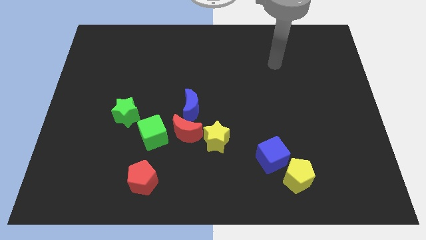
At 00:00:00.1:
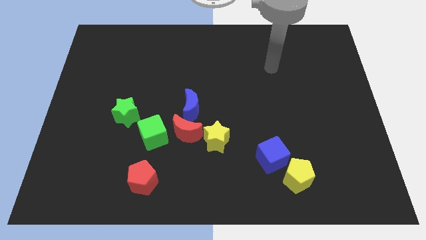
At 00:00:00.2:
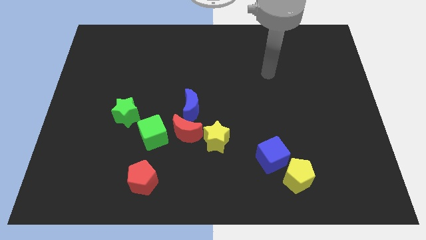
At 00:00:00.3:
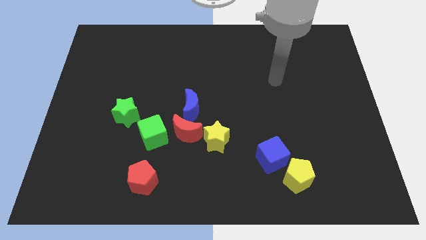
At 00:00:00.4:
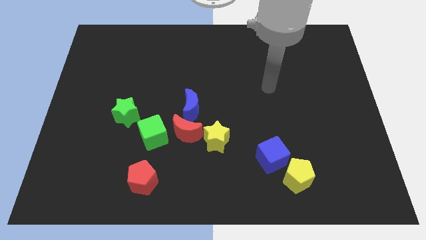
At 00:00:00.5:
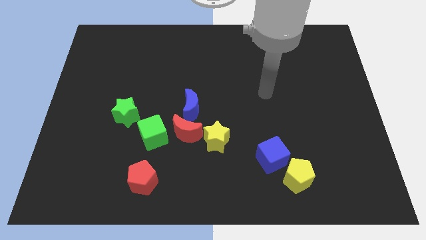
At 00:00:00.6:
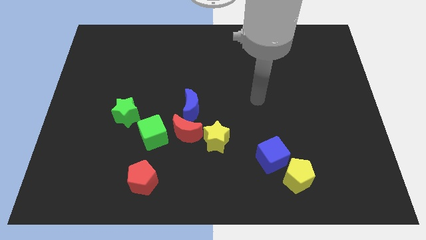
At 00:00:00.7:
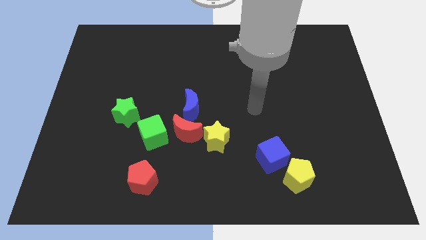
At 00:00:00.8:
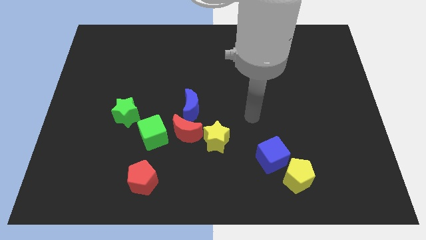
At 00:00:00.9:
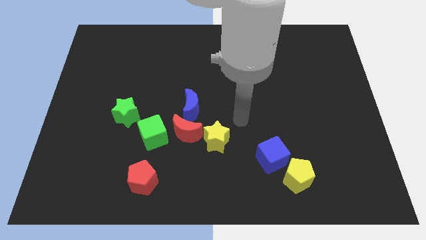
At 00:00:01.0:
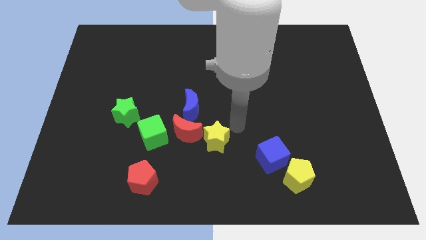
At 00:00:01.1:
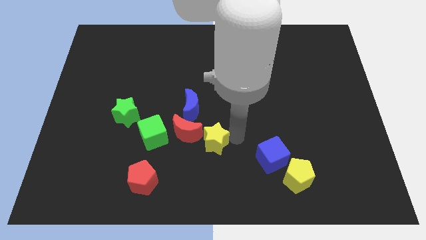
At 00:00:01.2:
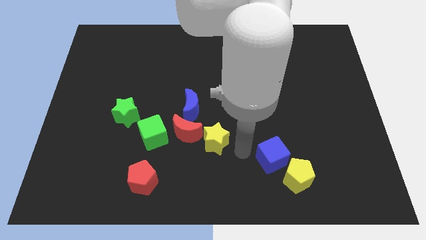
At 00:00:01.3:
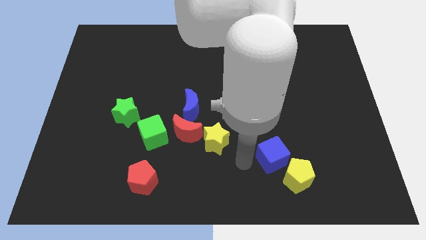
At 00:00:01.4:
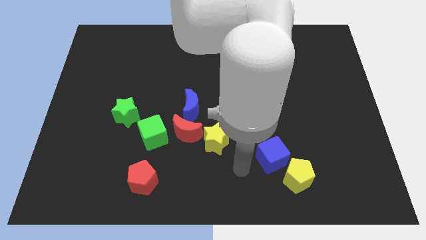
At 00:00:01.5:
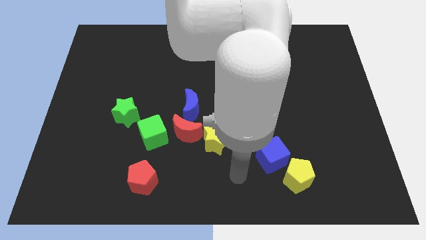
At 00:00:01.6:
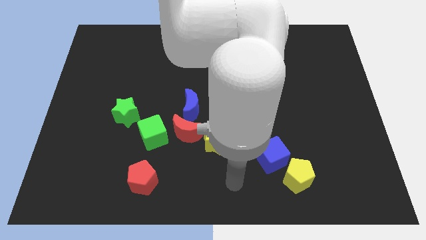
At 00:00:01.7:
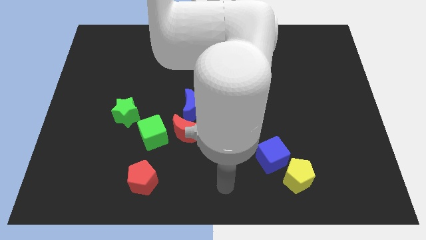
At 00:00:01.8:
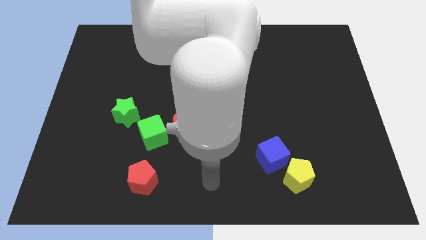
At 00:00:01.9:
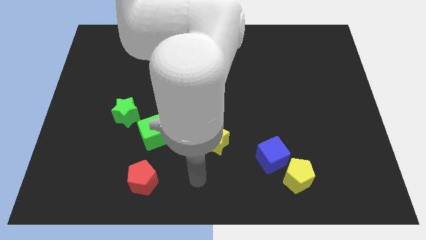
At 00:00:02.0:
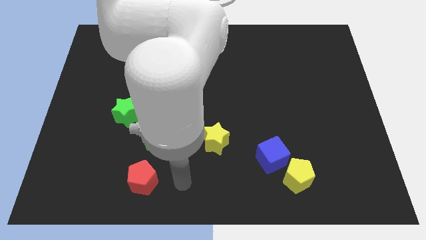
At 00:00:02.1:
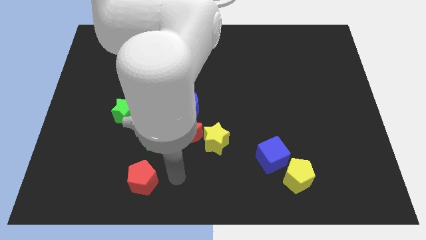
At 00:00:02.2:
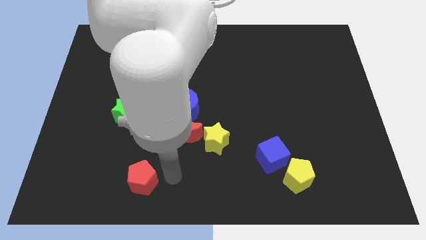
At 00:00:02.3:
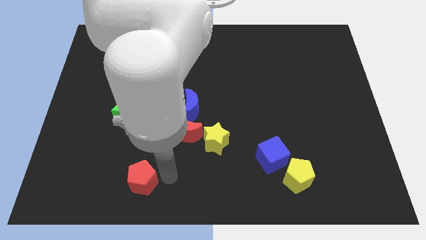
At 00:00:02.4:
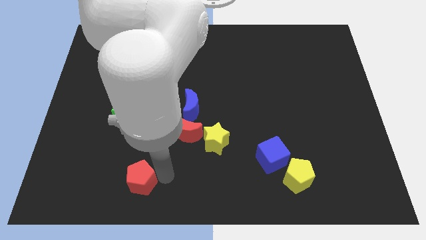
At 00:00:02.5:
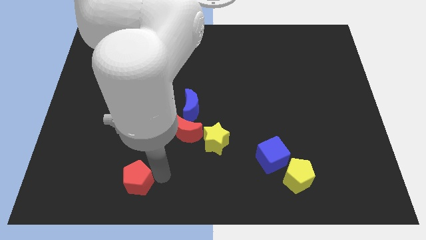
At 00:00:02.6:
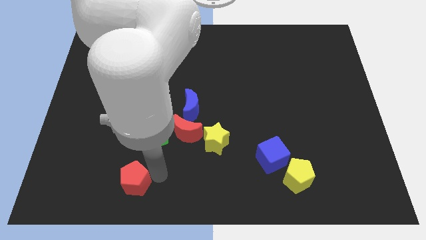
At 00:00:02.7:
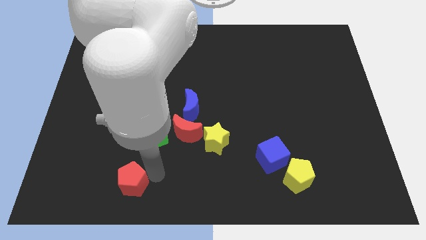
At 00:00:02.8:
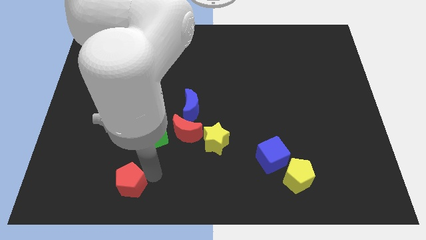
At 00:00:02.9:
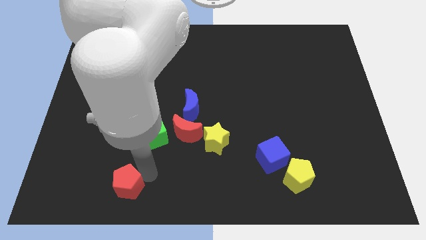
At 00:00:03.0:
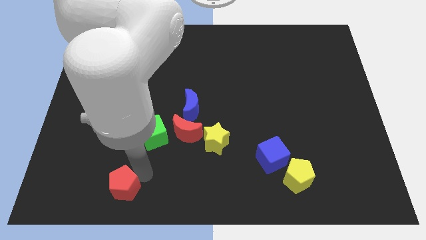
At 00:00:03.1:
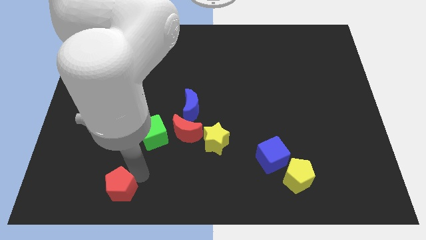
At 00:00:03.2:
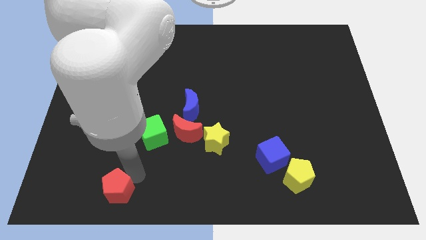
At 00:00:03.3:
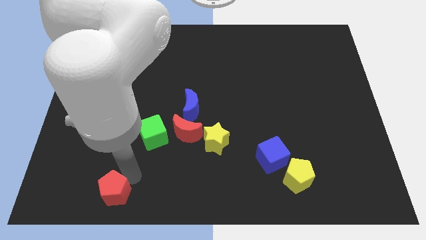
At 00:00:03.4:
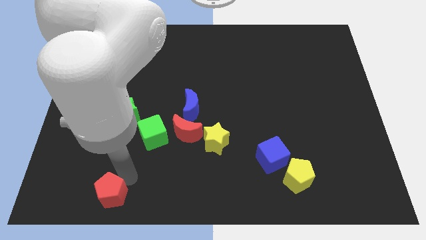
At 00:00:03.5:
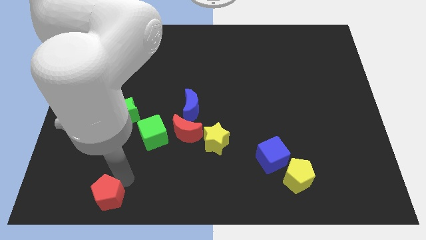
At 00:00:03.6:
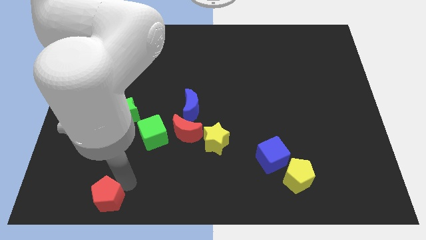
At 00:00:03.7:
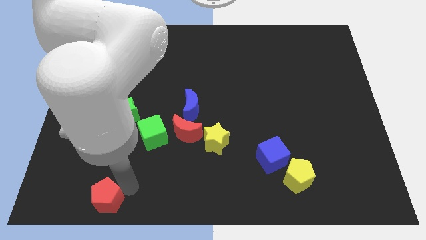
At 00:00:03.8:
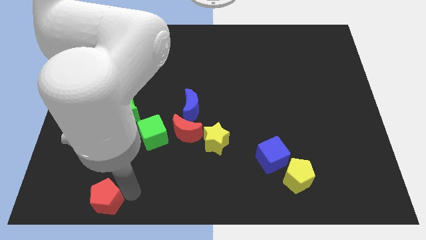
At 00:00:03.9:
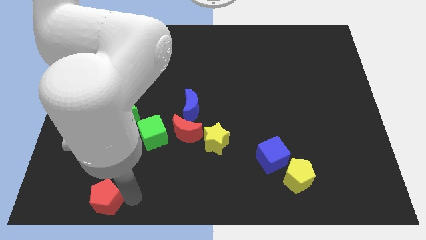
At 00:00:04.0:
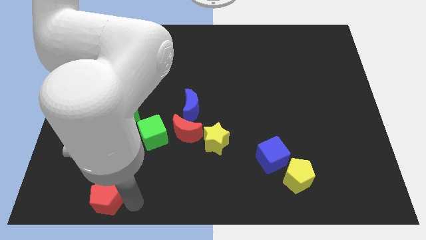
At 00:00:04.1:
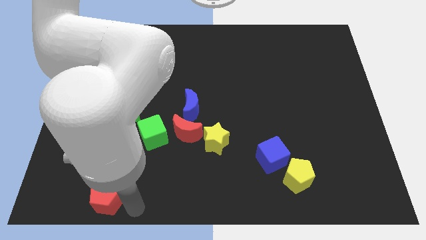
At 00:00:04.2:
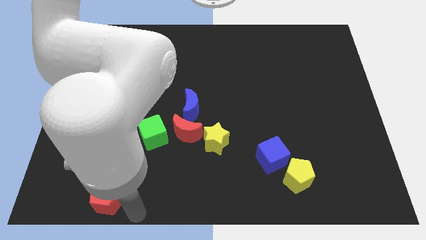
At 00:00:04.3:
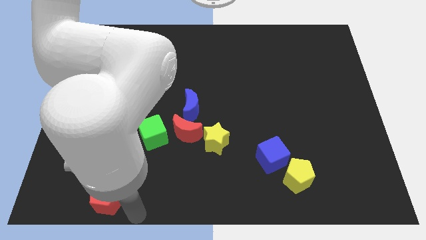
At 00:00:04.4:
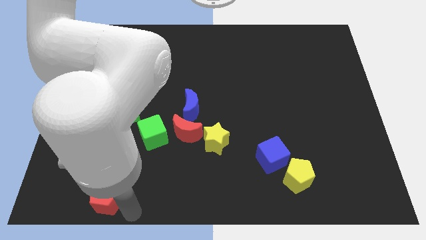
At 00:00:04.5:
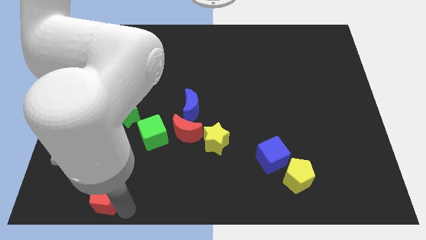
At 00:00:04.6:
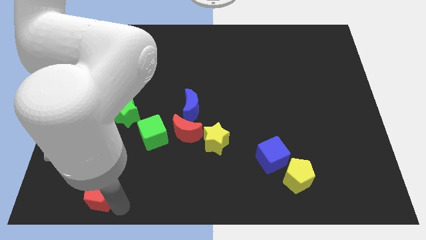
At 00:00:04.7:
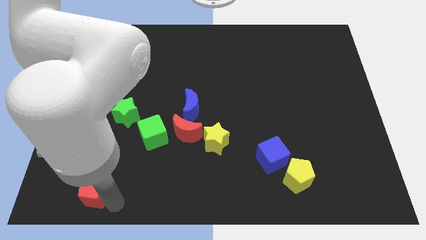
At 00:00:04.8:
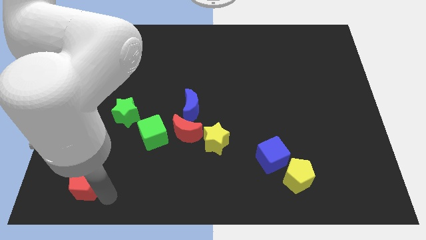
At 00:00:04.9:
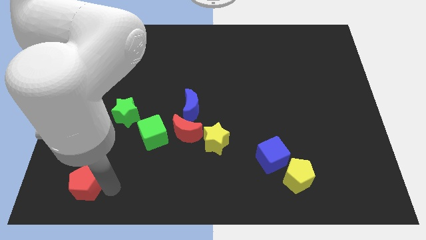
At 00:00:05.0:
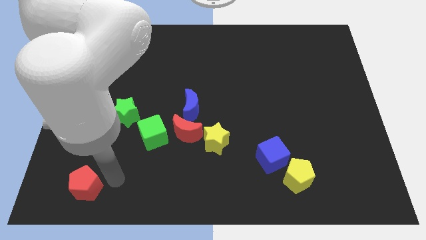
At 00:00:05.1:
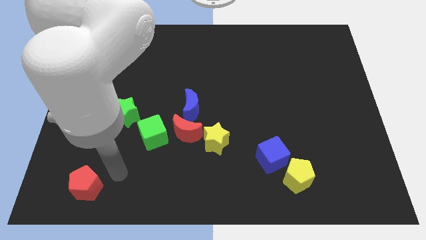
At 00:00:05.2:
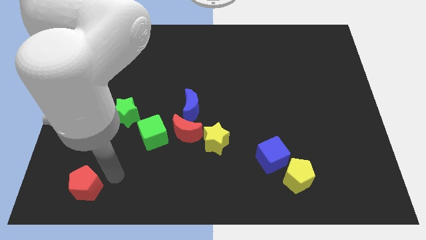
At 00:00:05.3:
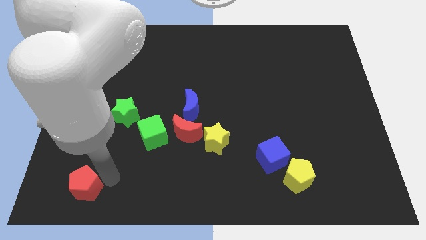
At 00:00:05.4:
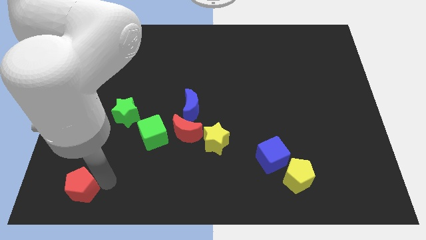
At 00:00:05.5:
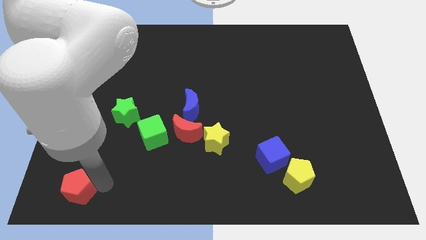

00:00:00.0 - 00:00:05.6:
push the red pentagon to the bottom left
